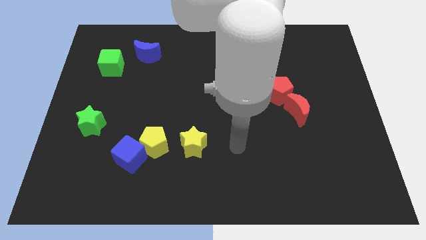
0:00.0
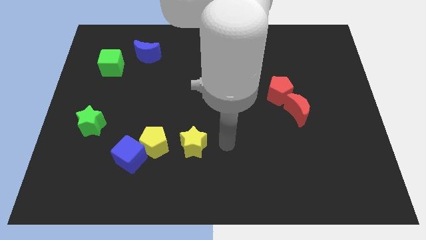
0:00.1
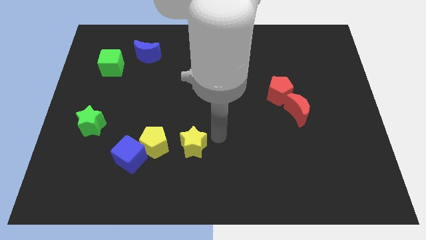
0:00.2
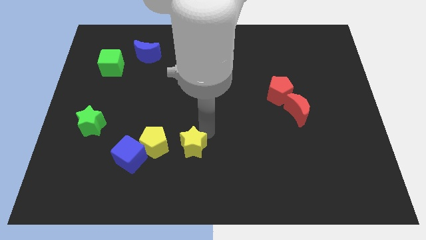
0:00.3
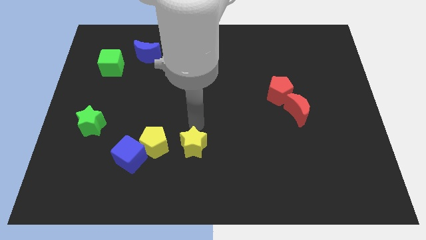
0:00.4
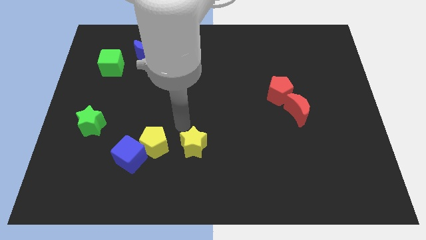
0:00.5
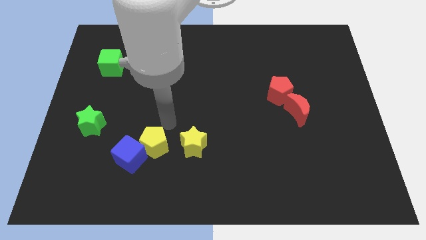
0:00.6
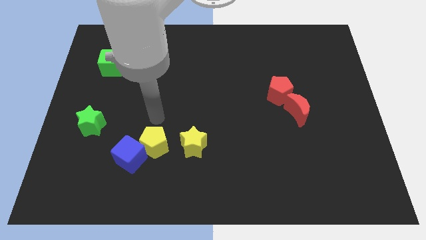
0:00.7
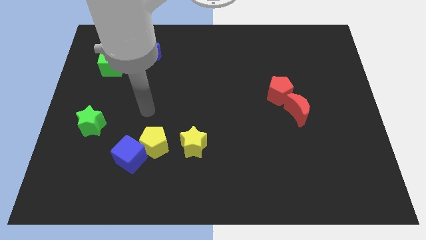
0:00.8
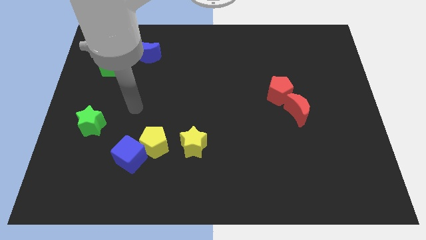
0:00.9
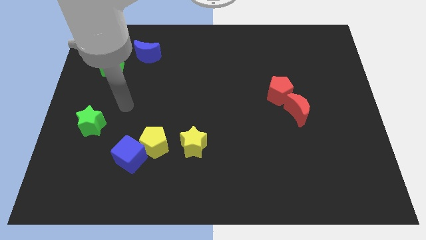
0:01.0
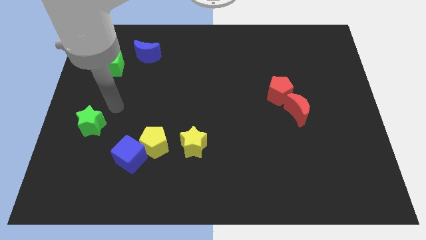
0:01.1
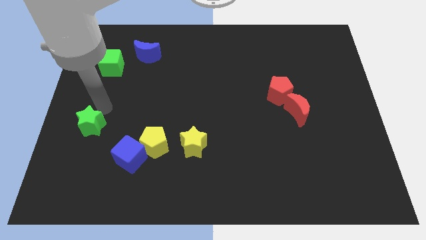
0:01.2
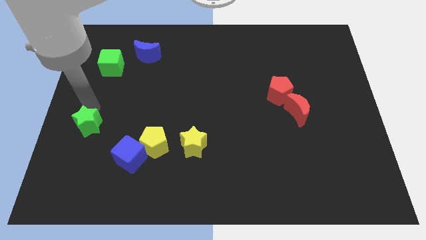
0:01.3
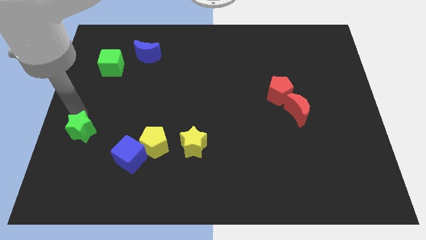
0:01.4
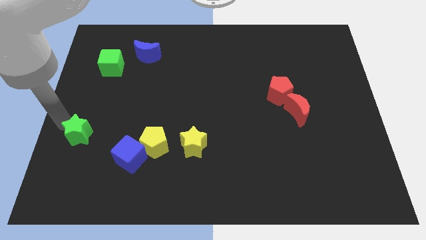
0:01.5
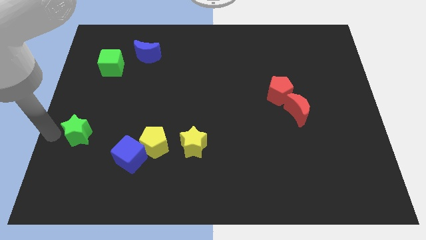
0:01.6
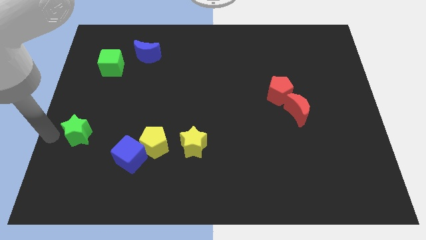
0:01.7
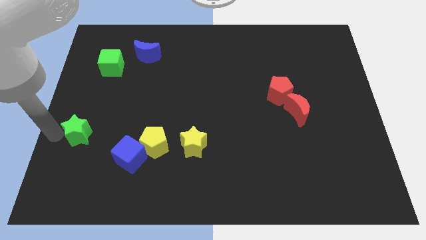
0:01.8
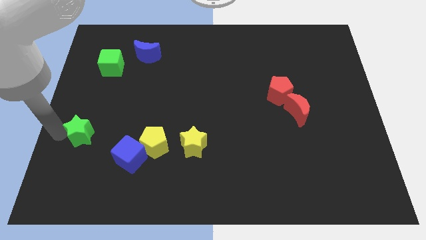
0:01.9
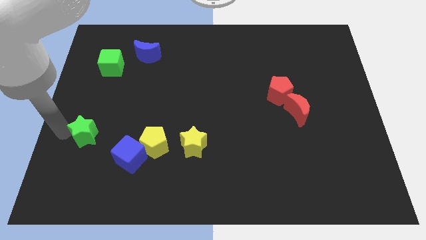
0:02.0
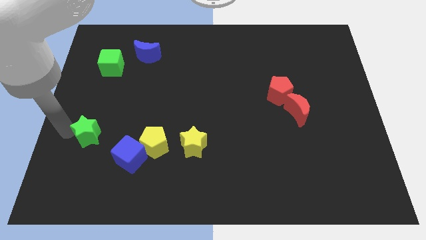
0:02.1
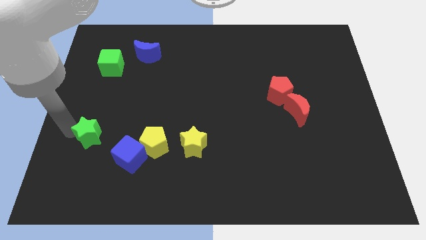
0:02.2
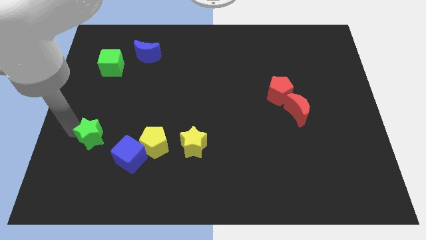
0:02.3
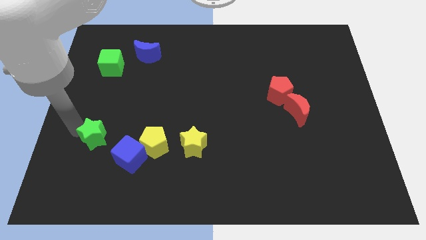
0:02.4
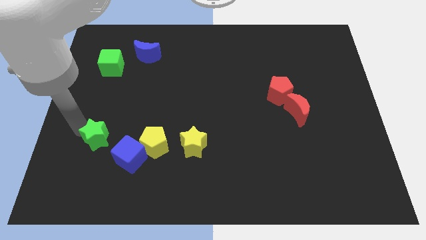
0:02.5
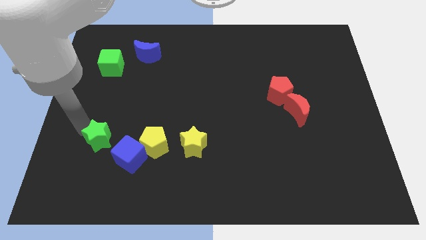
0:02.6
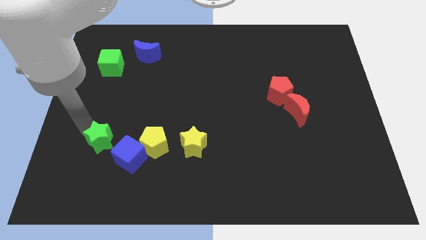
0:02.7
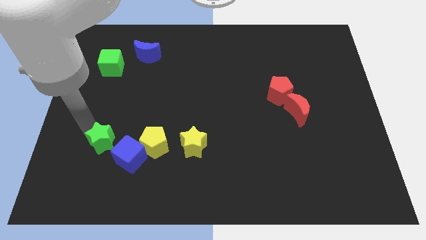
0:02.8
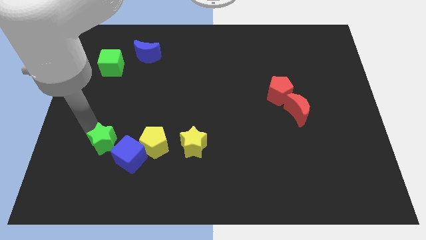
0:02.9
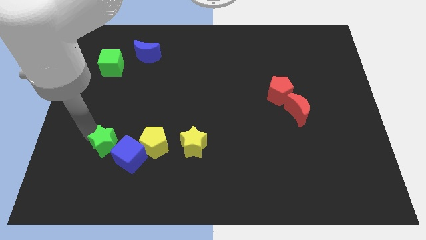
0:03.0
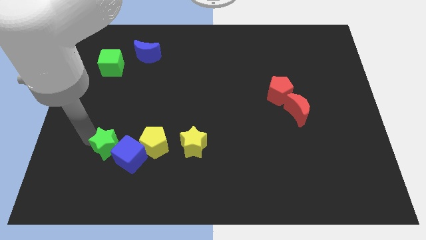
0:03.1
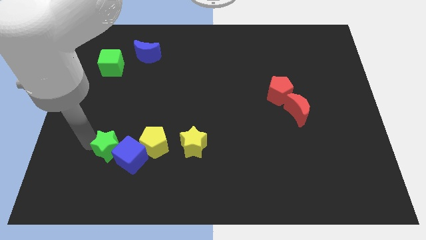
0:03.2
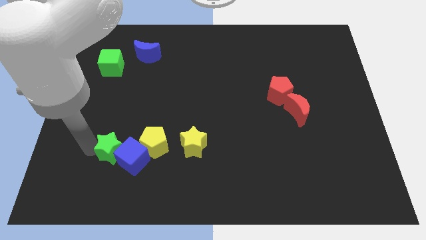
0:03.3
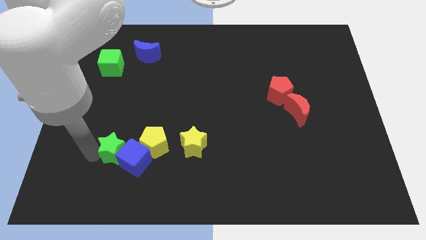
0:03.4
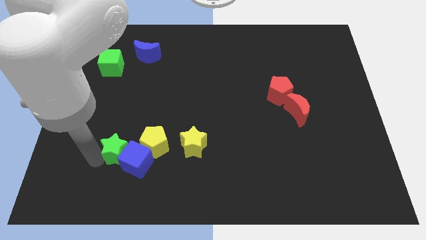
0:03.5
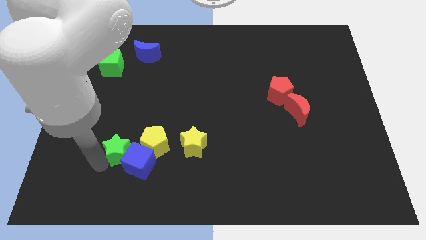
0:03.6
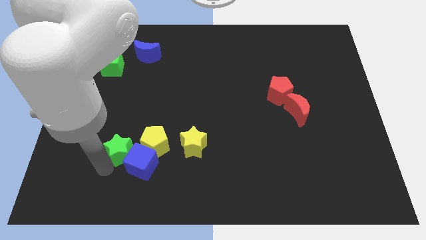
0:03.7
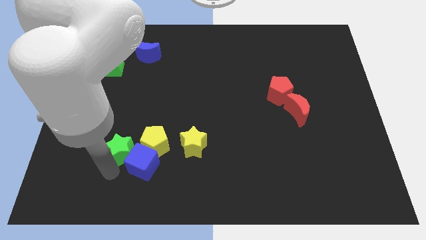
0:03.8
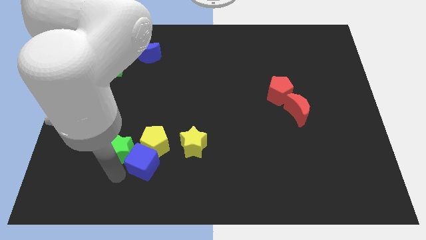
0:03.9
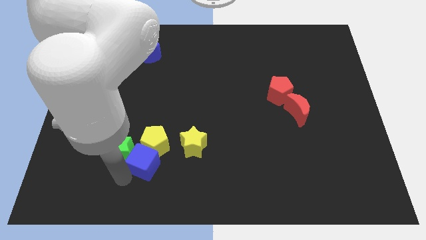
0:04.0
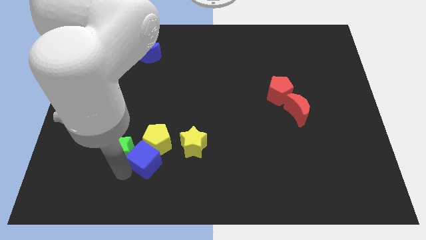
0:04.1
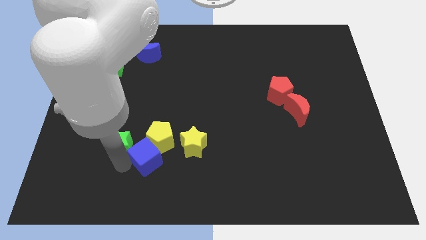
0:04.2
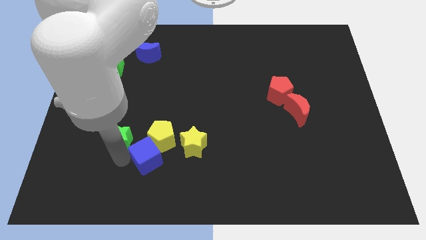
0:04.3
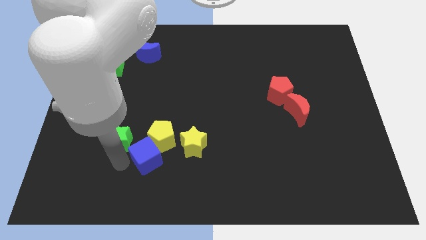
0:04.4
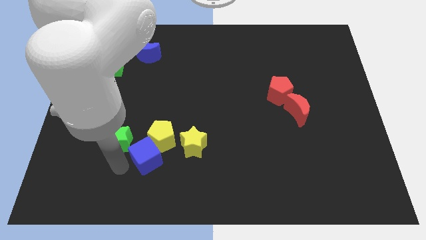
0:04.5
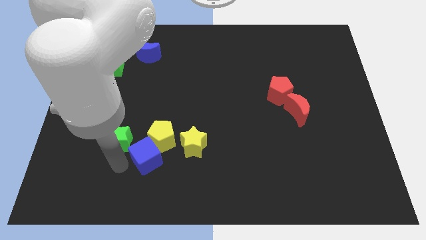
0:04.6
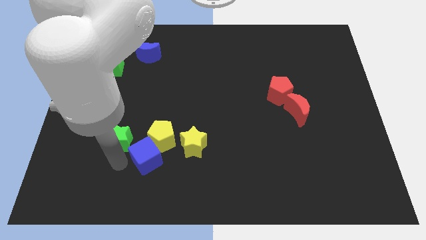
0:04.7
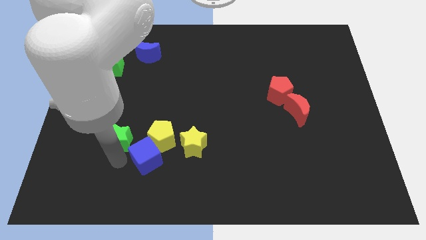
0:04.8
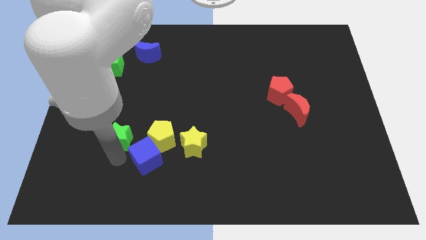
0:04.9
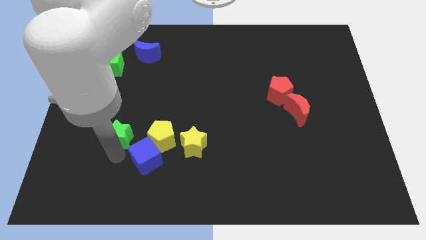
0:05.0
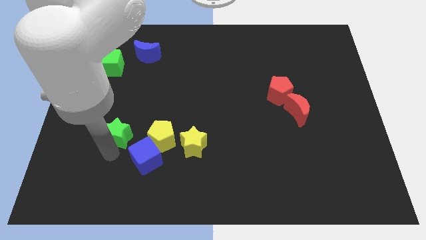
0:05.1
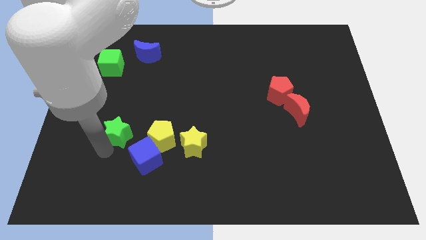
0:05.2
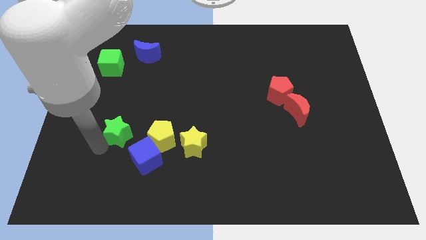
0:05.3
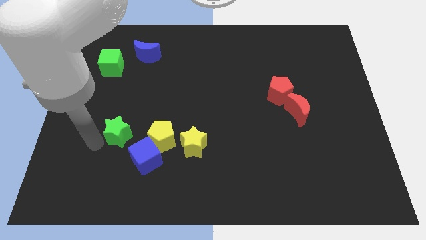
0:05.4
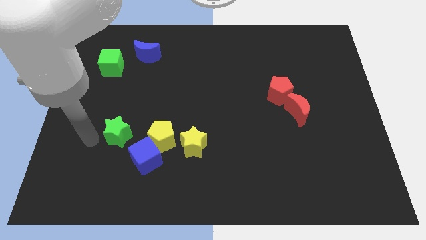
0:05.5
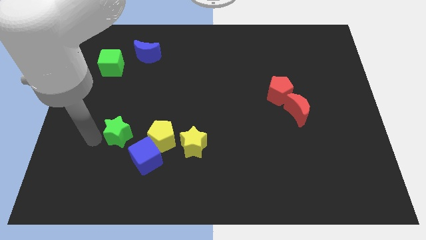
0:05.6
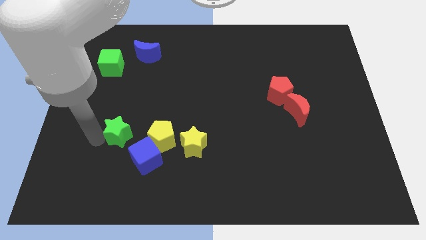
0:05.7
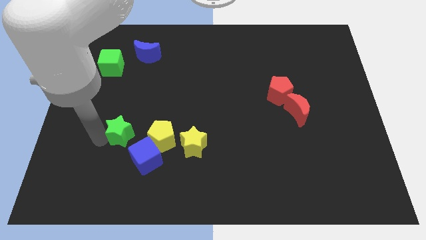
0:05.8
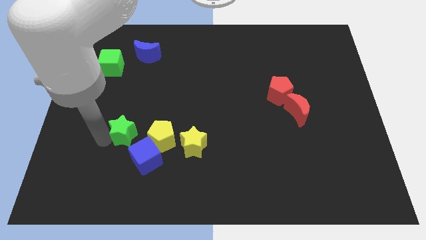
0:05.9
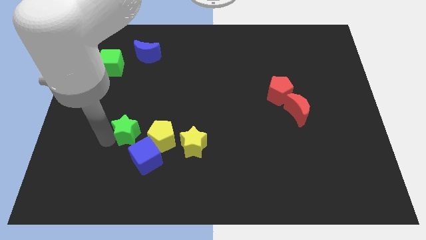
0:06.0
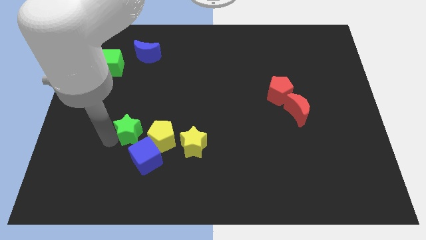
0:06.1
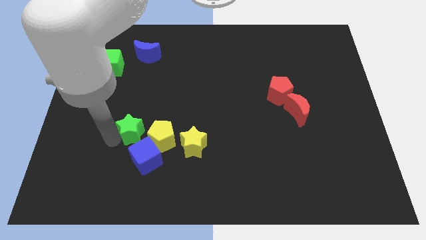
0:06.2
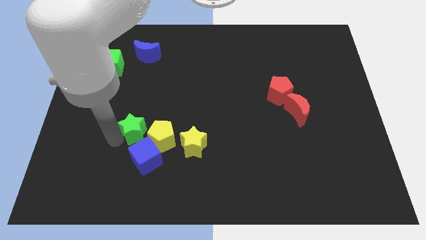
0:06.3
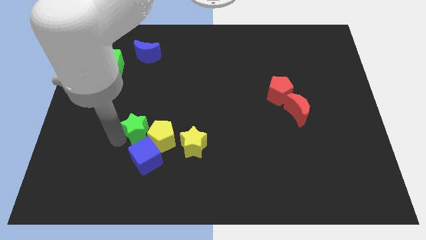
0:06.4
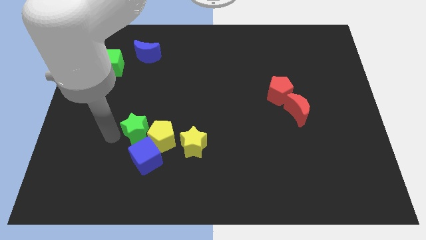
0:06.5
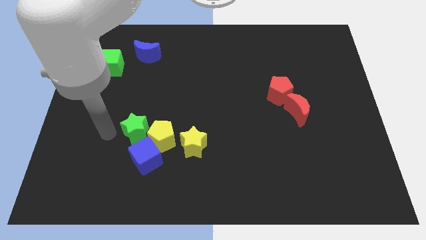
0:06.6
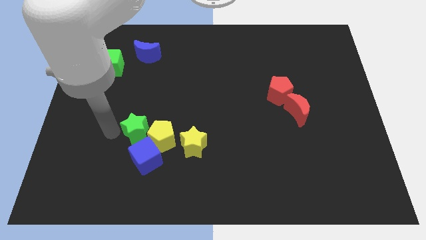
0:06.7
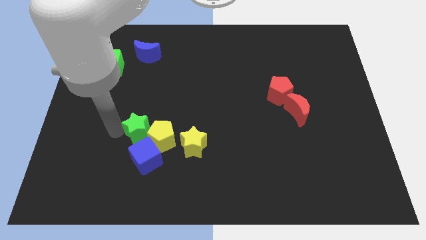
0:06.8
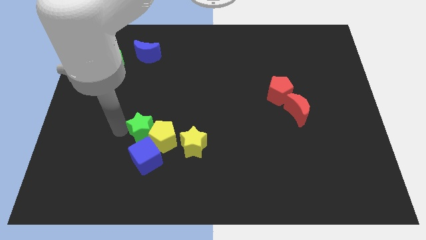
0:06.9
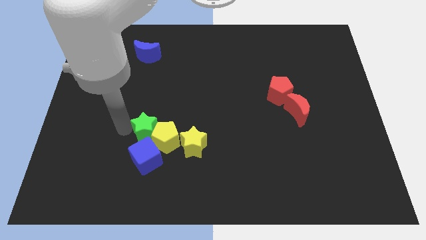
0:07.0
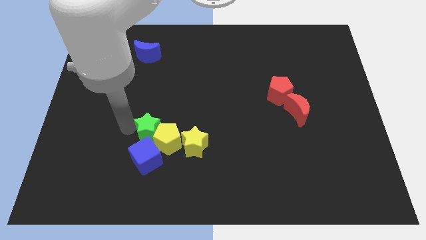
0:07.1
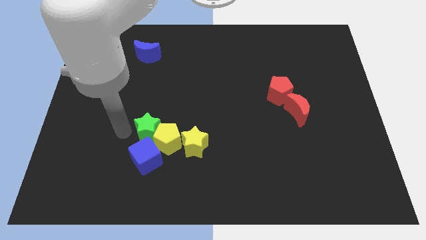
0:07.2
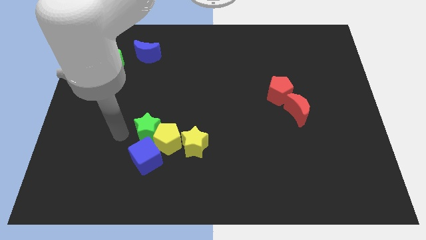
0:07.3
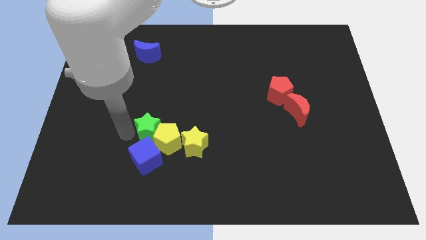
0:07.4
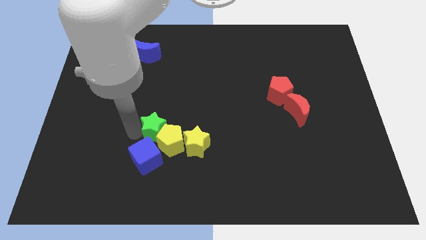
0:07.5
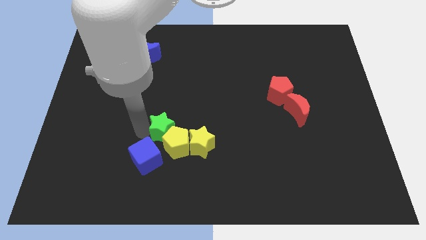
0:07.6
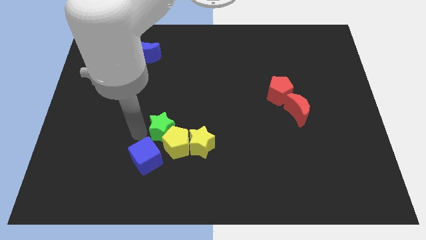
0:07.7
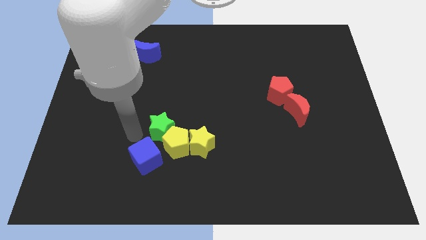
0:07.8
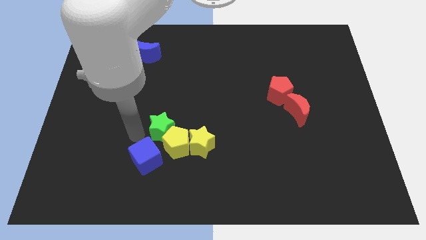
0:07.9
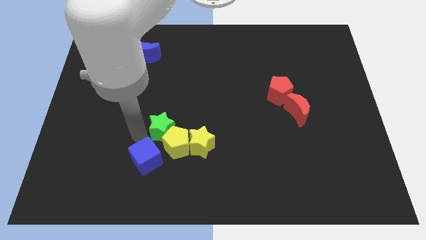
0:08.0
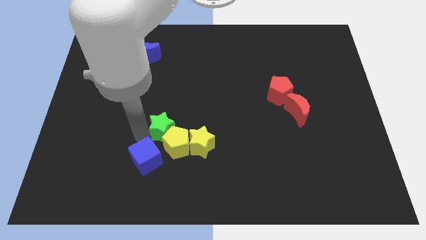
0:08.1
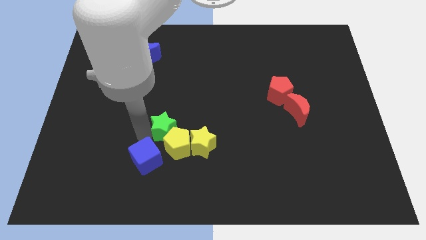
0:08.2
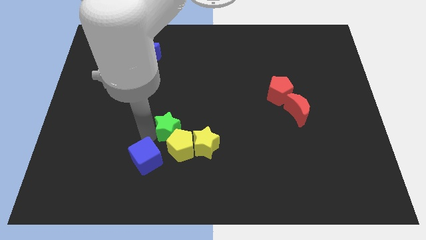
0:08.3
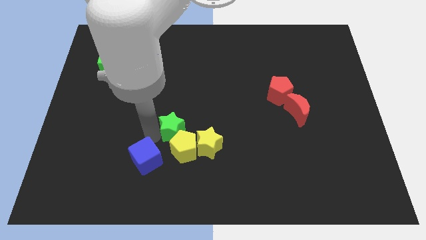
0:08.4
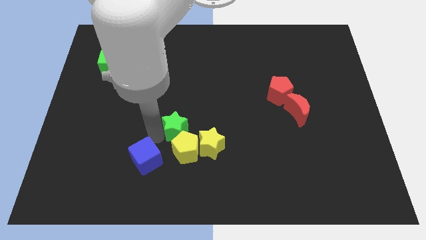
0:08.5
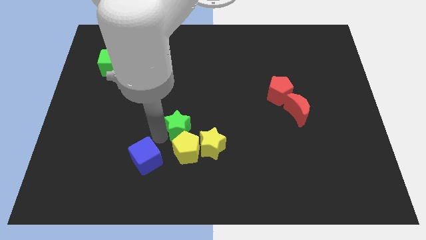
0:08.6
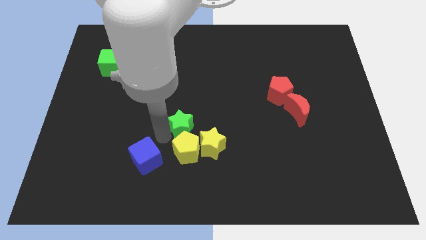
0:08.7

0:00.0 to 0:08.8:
push the green star right
